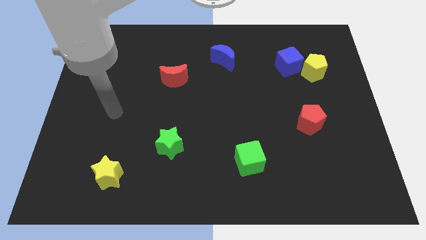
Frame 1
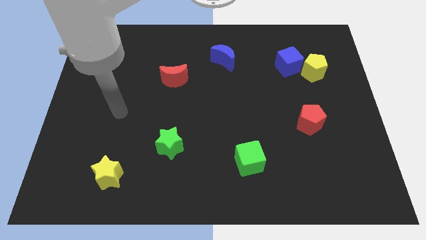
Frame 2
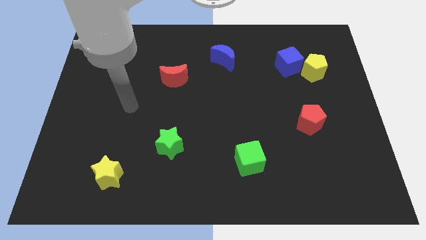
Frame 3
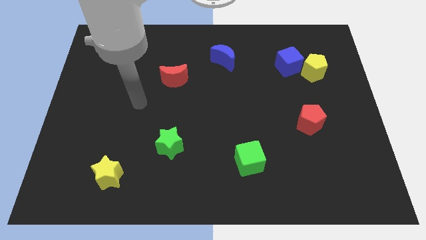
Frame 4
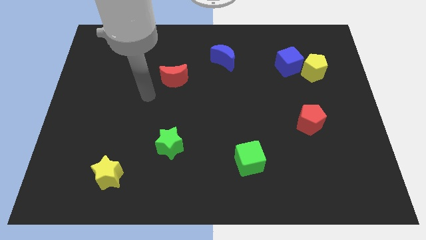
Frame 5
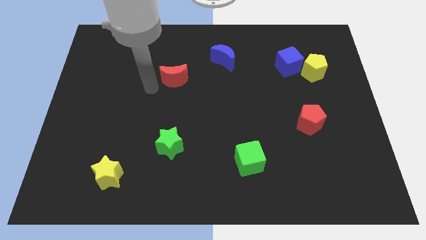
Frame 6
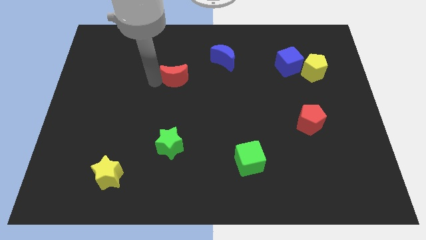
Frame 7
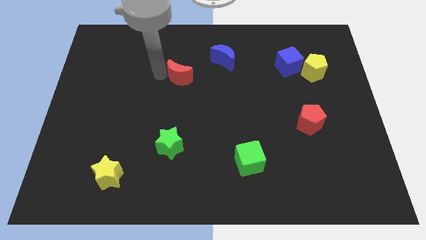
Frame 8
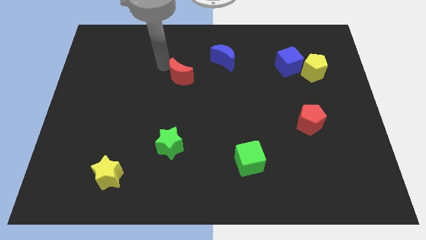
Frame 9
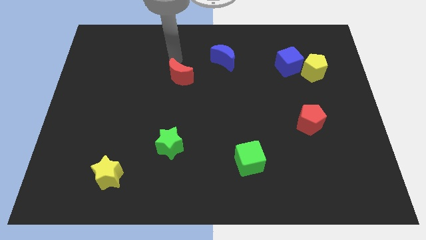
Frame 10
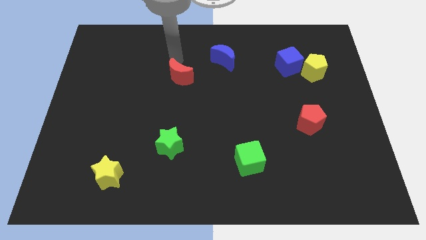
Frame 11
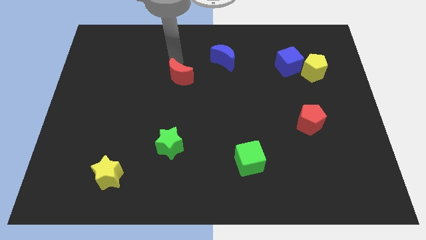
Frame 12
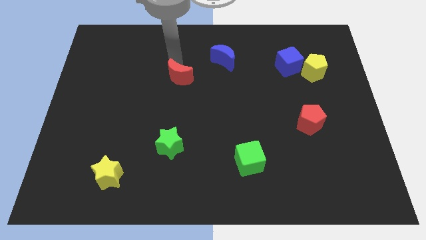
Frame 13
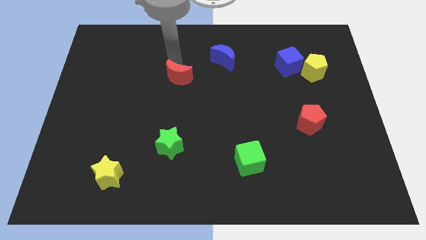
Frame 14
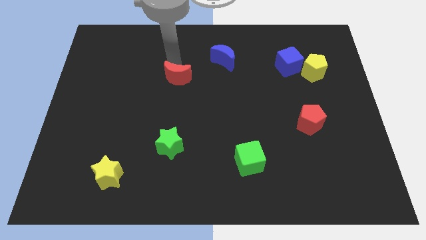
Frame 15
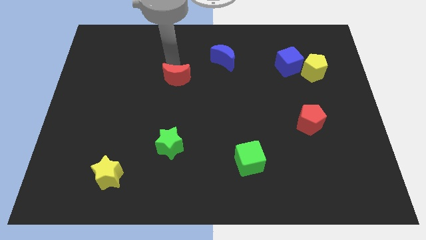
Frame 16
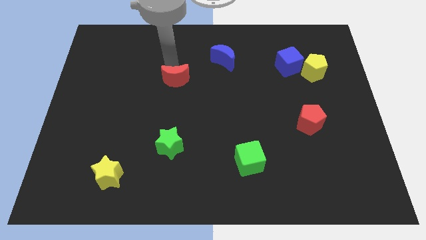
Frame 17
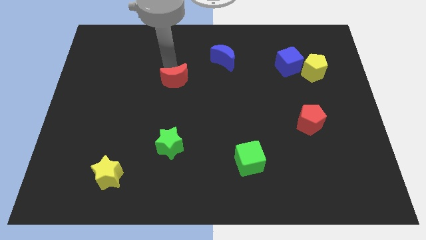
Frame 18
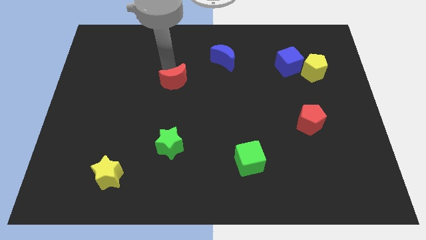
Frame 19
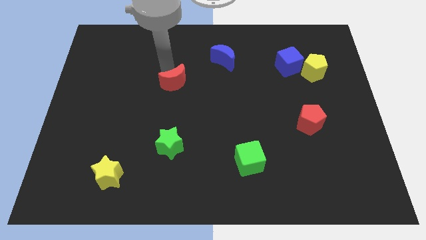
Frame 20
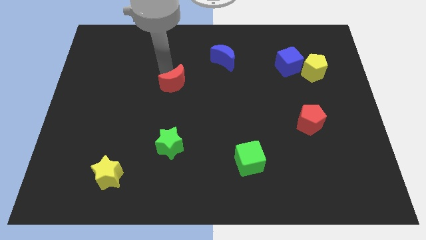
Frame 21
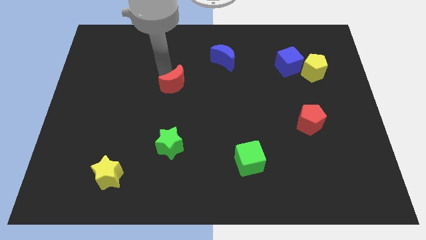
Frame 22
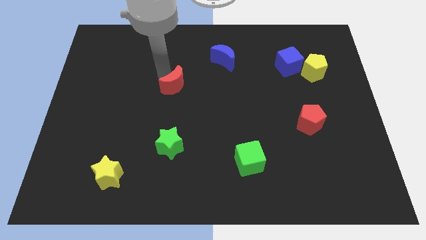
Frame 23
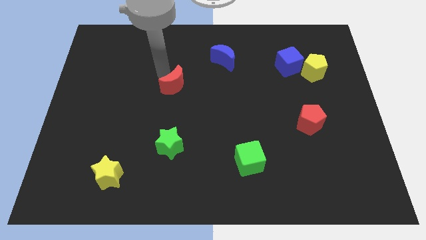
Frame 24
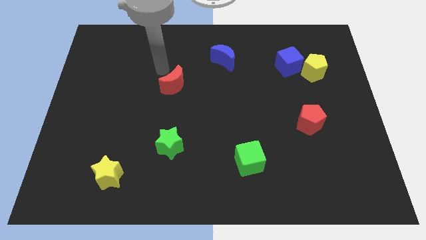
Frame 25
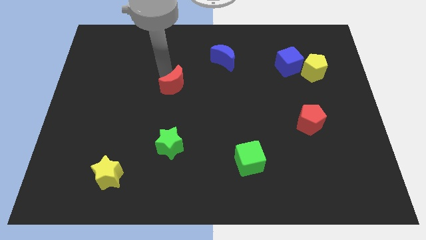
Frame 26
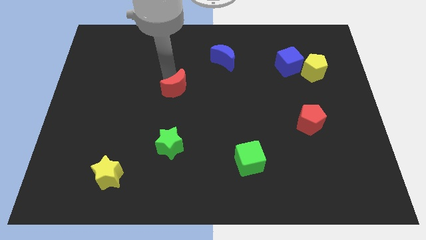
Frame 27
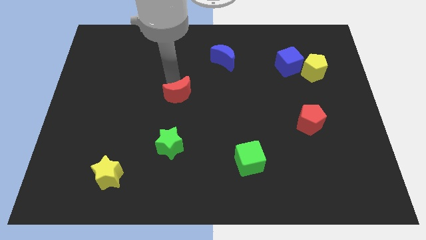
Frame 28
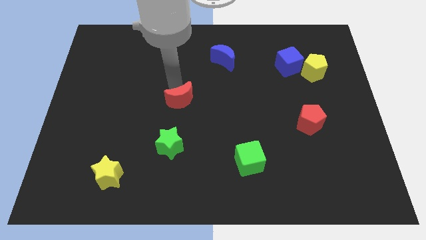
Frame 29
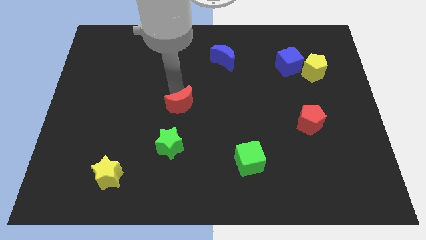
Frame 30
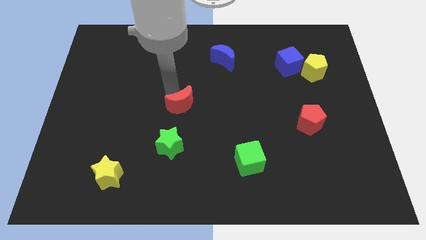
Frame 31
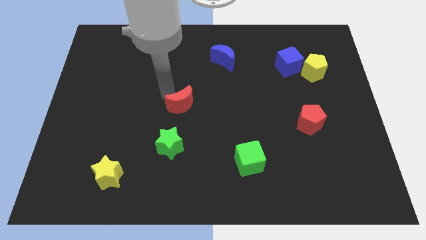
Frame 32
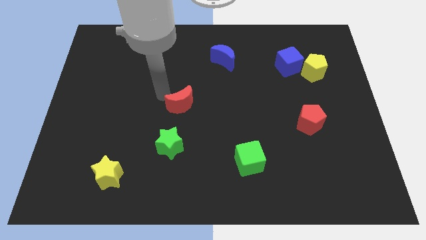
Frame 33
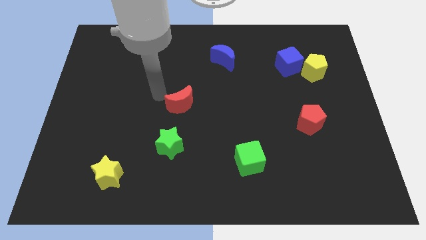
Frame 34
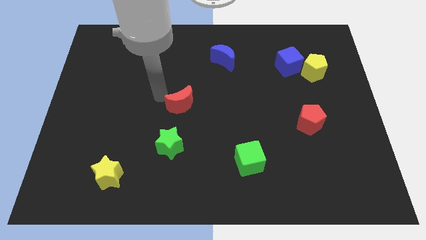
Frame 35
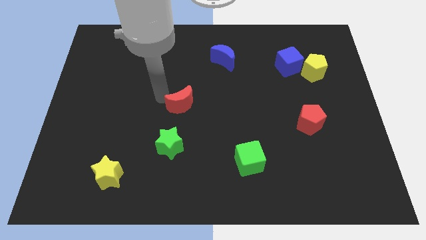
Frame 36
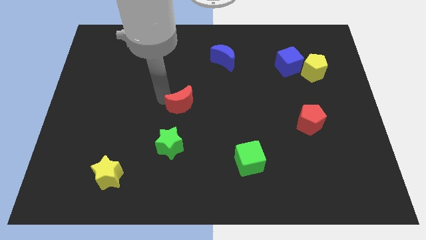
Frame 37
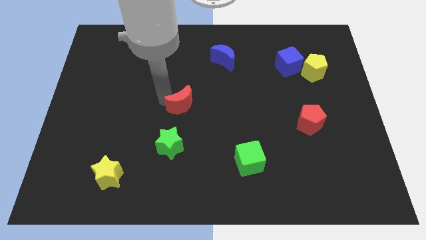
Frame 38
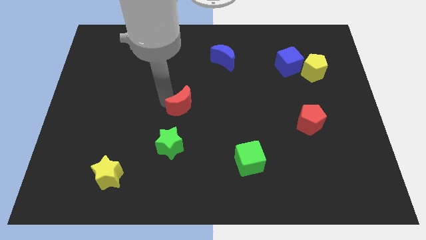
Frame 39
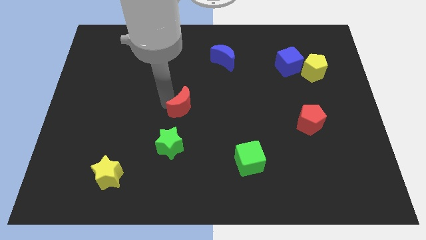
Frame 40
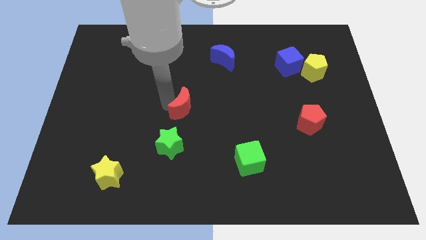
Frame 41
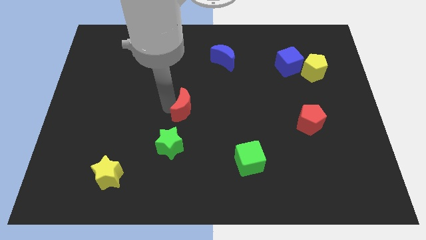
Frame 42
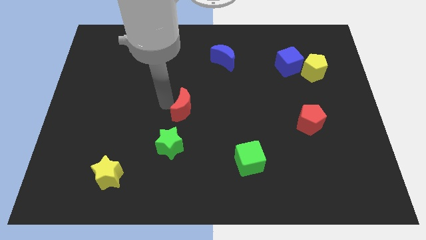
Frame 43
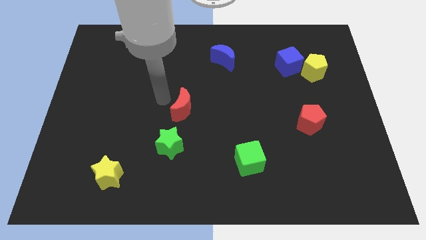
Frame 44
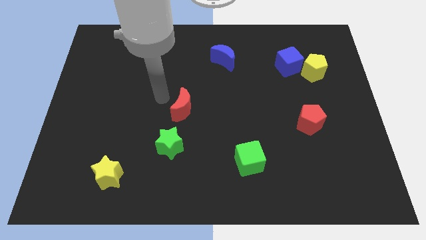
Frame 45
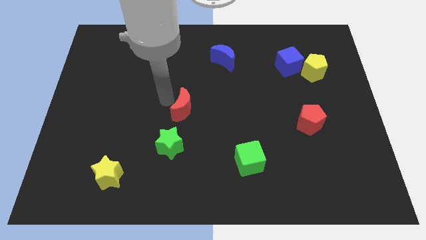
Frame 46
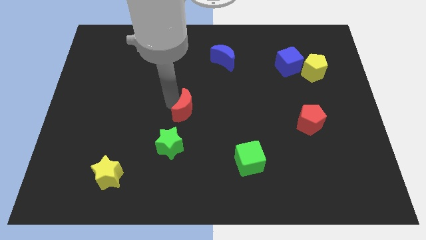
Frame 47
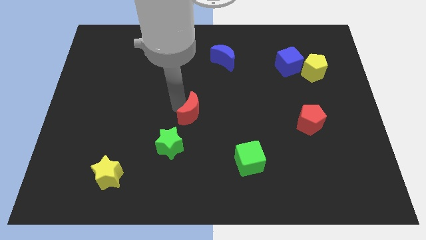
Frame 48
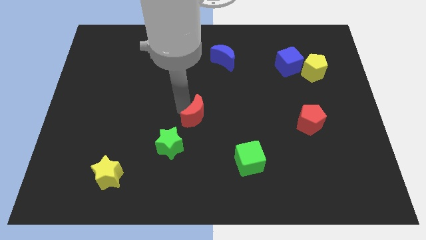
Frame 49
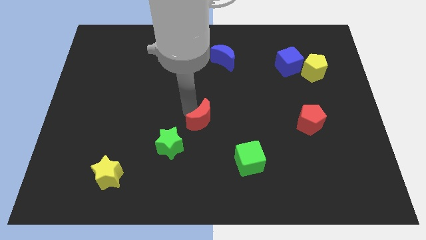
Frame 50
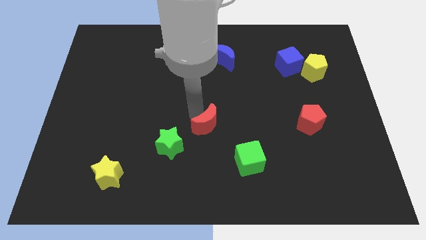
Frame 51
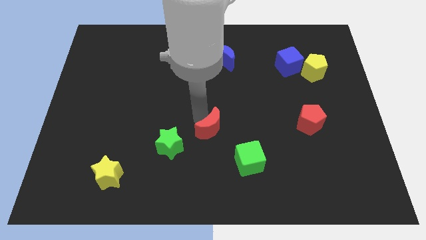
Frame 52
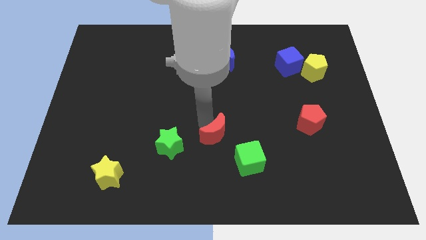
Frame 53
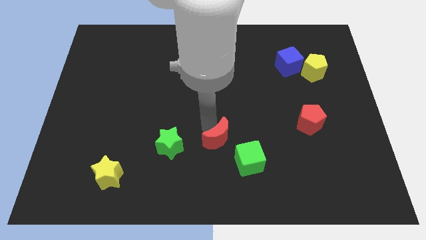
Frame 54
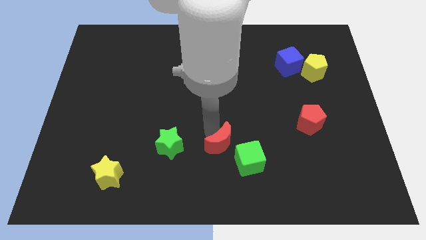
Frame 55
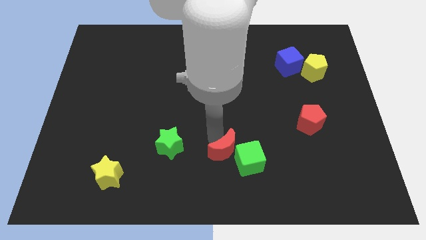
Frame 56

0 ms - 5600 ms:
move the red moon close to the green cube

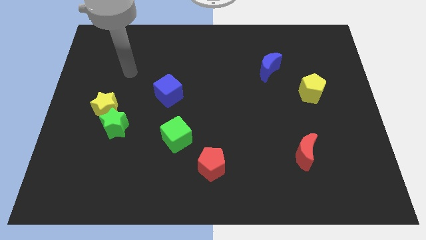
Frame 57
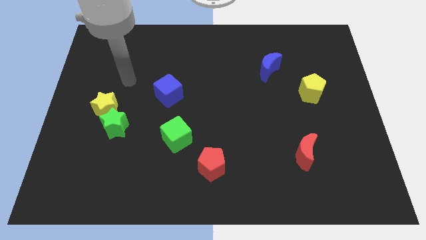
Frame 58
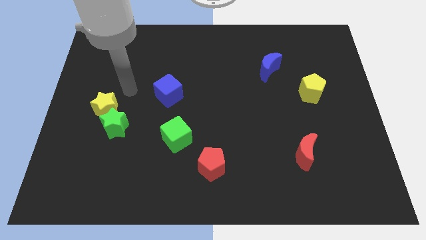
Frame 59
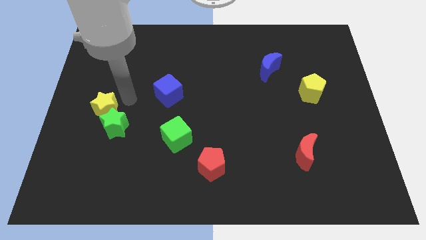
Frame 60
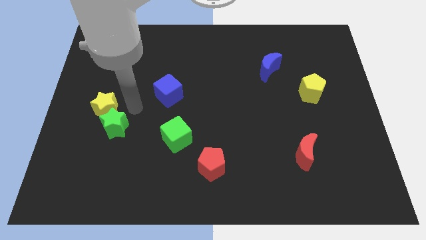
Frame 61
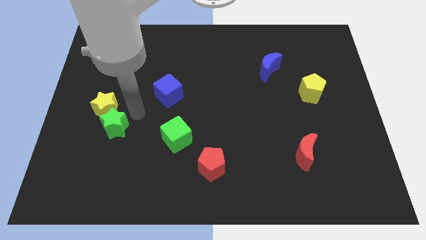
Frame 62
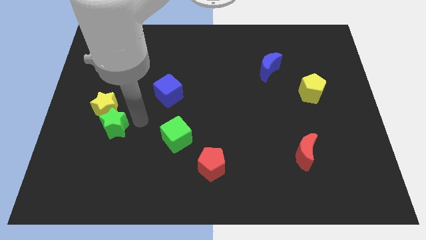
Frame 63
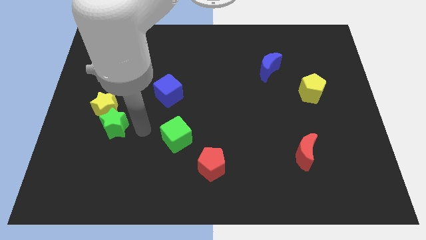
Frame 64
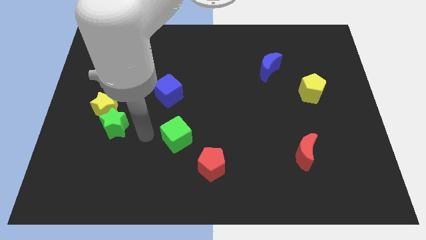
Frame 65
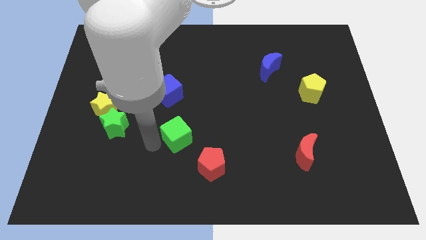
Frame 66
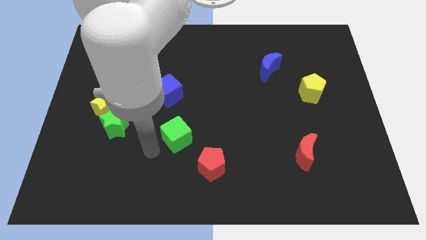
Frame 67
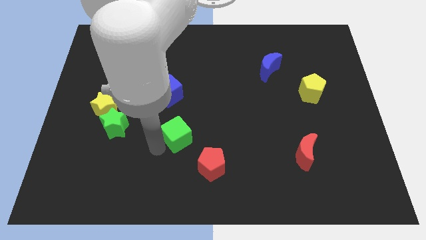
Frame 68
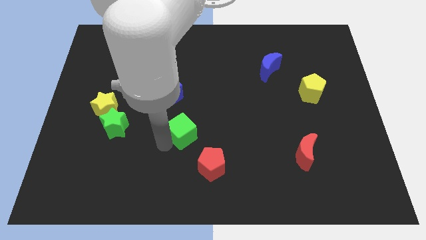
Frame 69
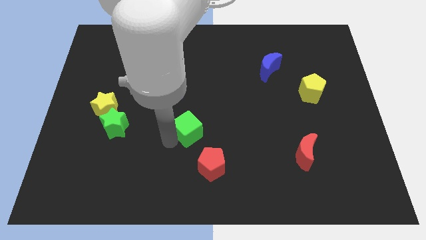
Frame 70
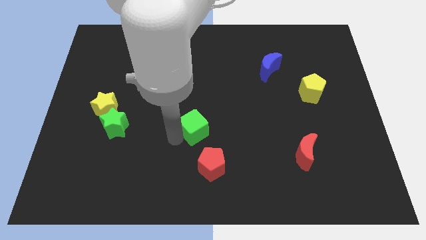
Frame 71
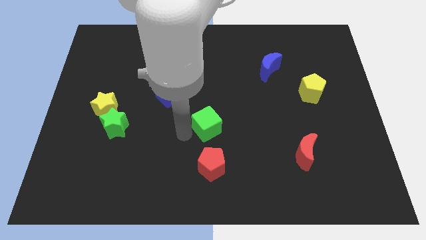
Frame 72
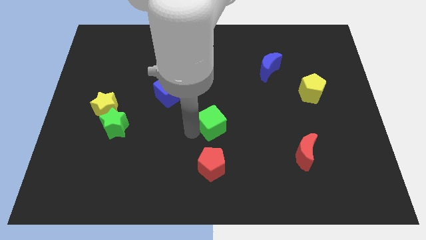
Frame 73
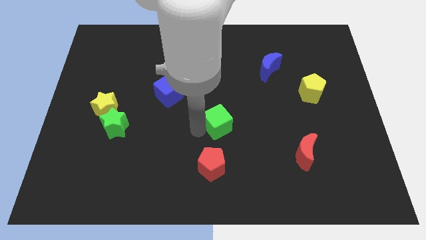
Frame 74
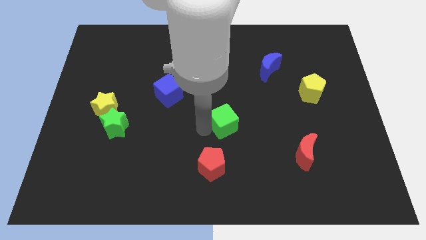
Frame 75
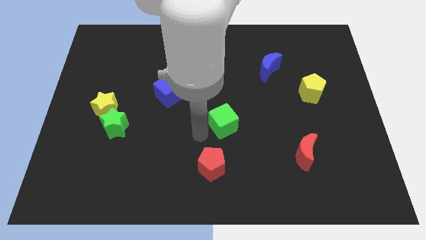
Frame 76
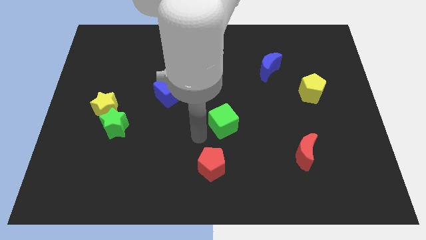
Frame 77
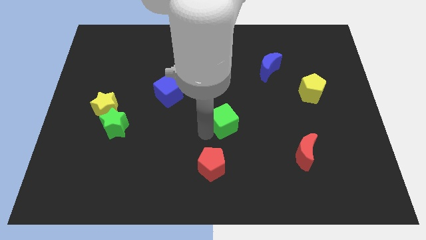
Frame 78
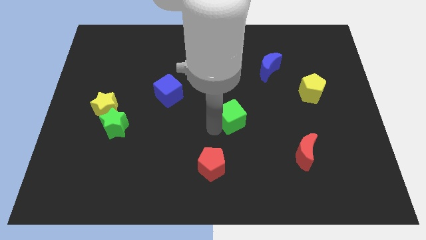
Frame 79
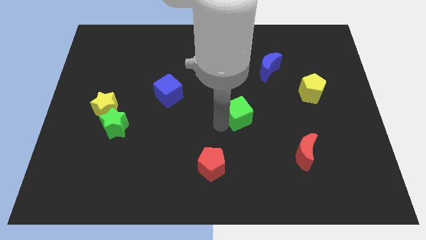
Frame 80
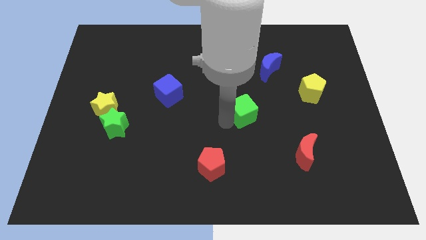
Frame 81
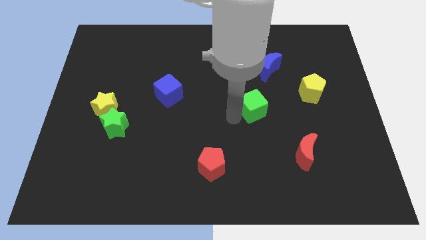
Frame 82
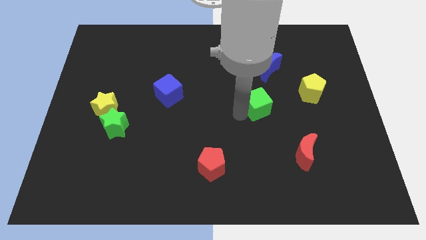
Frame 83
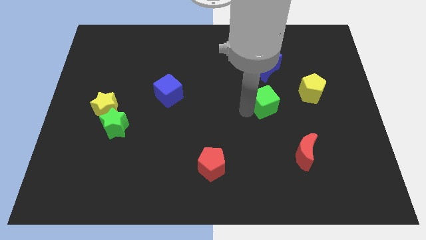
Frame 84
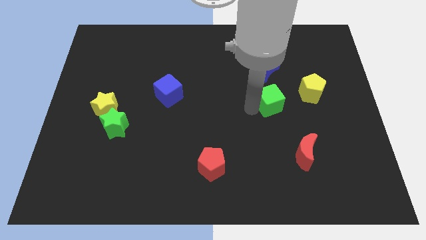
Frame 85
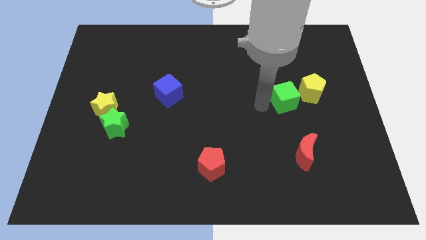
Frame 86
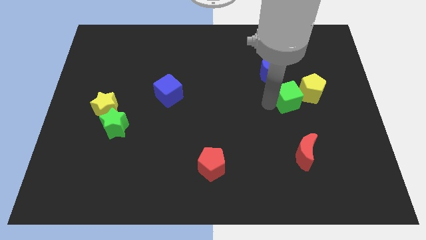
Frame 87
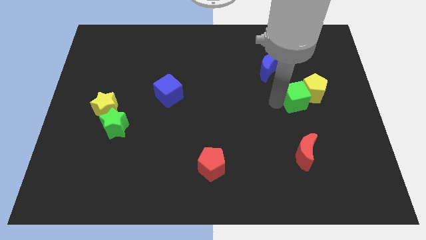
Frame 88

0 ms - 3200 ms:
slide the green cube close to the yellow pentagon
